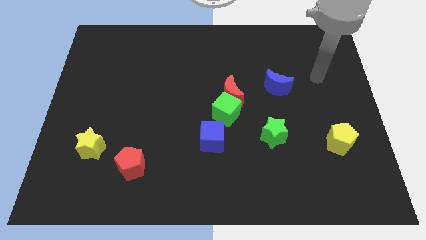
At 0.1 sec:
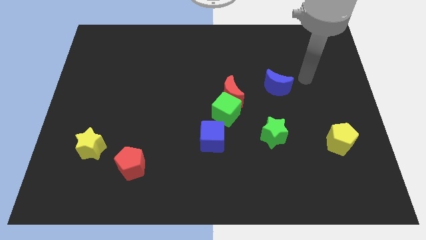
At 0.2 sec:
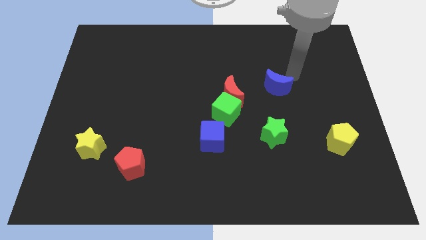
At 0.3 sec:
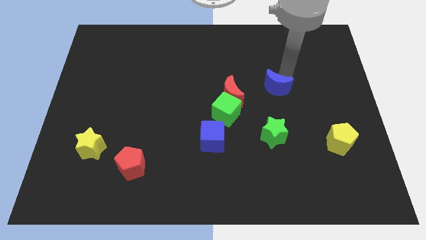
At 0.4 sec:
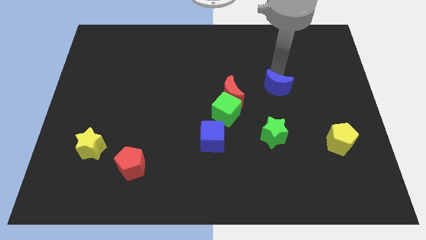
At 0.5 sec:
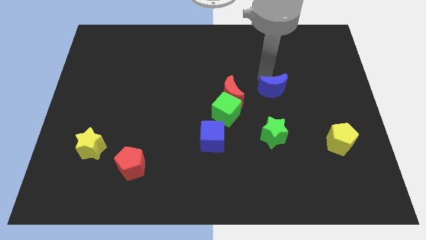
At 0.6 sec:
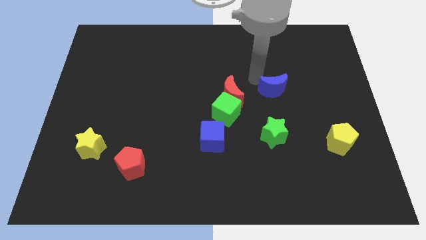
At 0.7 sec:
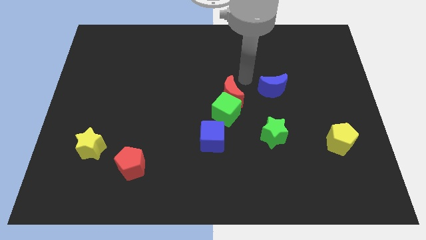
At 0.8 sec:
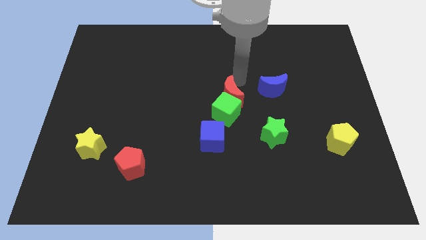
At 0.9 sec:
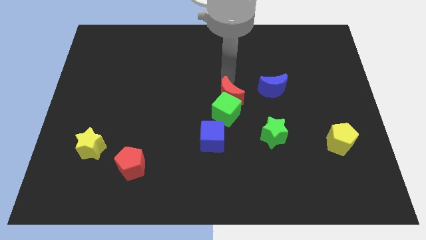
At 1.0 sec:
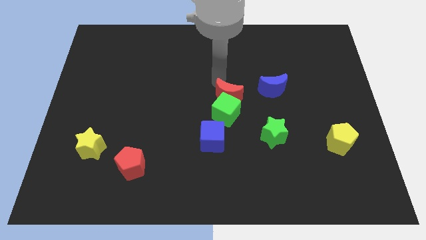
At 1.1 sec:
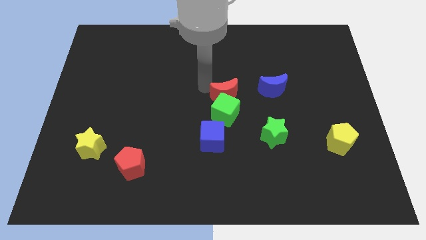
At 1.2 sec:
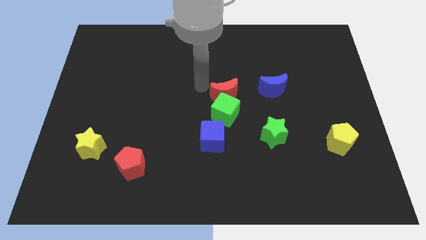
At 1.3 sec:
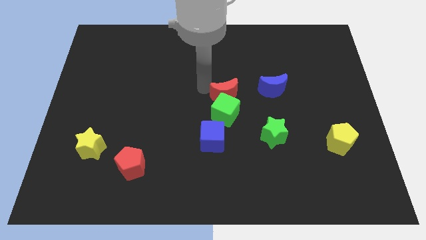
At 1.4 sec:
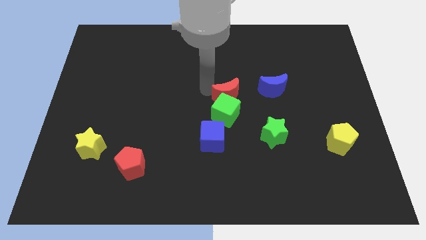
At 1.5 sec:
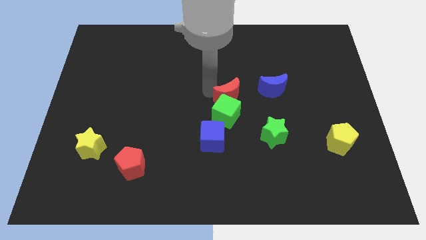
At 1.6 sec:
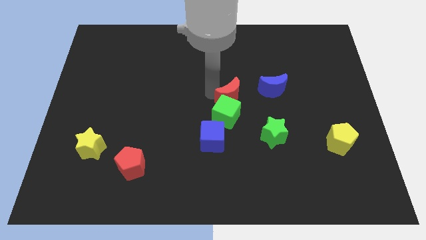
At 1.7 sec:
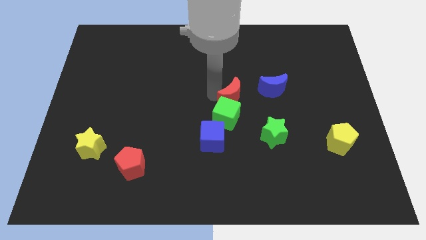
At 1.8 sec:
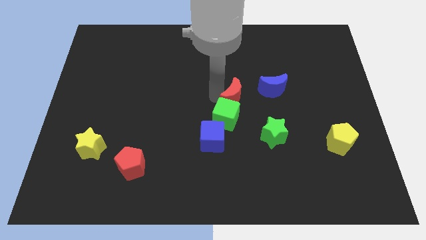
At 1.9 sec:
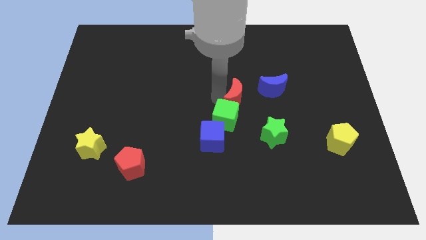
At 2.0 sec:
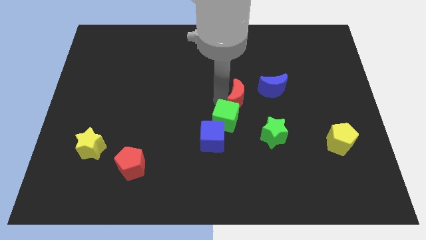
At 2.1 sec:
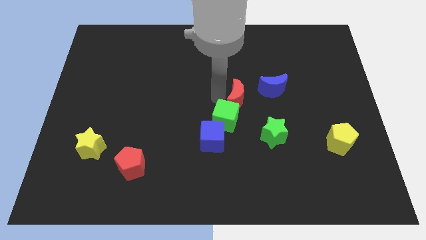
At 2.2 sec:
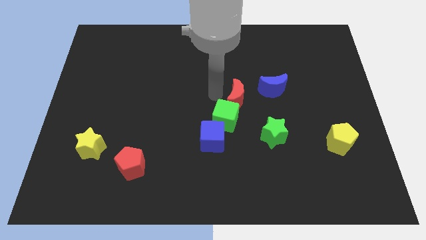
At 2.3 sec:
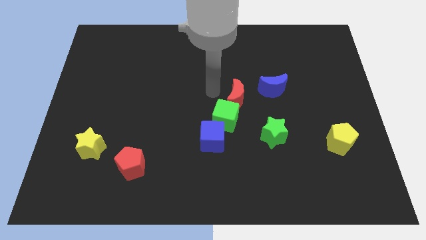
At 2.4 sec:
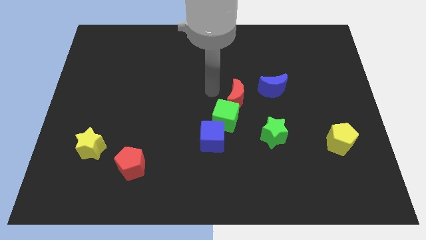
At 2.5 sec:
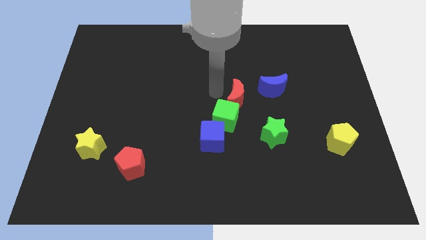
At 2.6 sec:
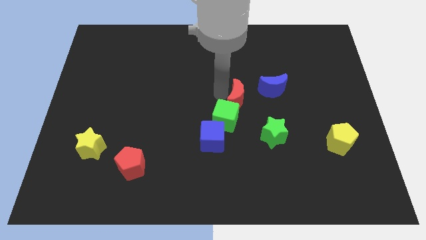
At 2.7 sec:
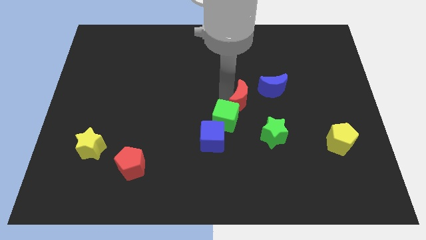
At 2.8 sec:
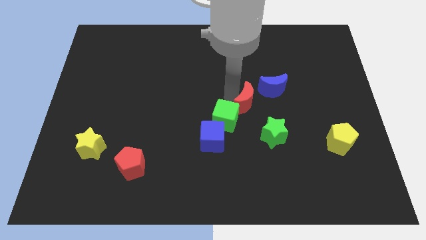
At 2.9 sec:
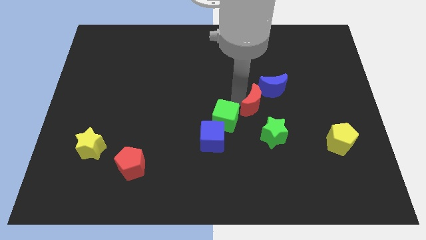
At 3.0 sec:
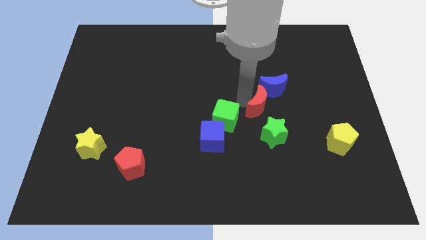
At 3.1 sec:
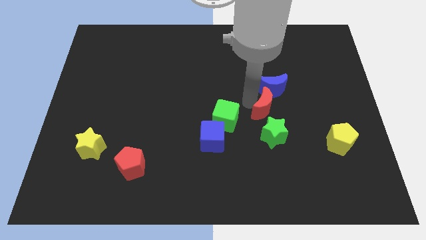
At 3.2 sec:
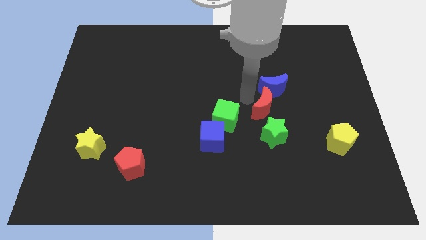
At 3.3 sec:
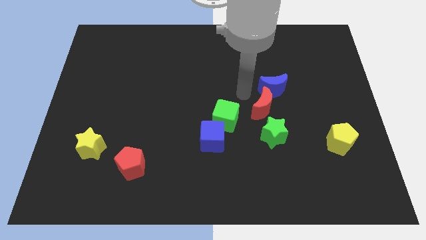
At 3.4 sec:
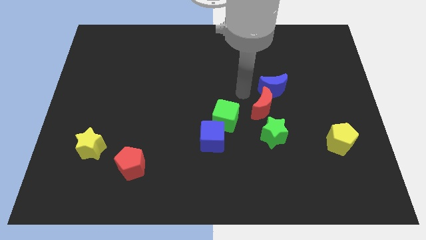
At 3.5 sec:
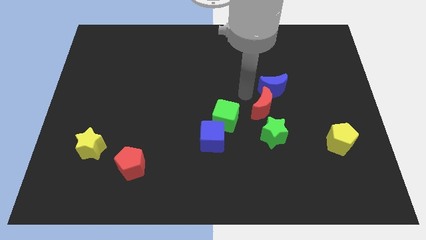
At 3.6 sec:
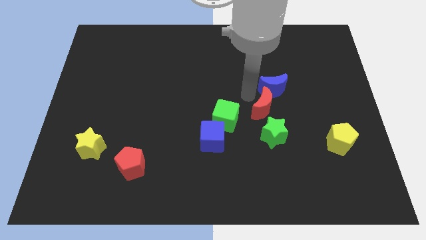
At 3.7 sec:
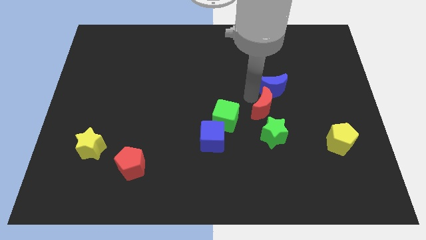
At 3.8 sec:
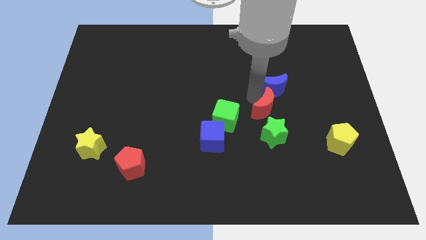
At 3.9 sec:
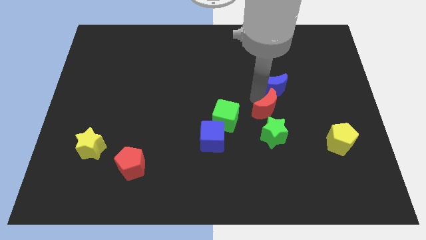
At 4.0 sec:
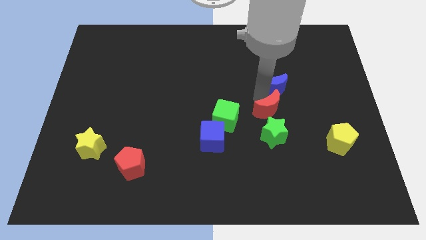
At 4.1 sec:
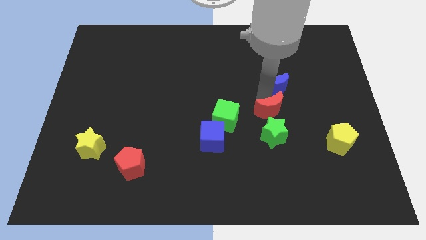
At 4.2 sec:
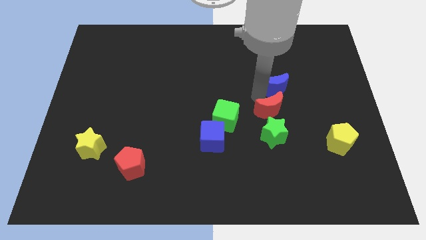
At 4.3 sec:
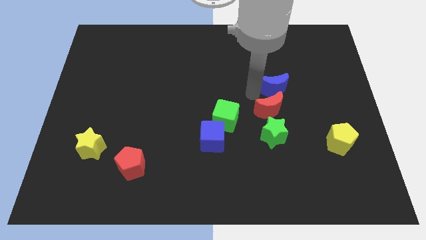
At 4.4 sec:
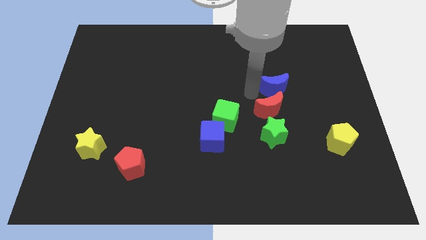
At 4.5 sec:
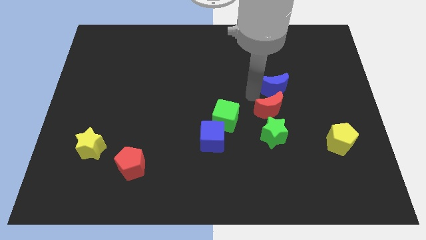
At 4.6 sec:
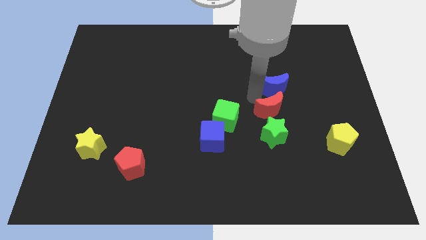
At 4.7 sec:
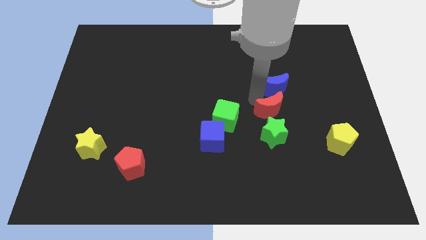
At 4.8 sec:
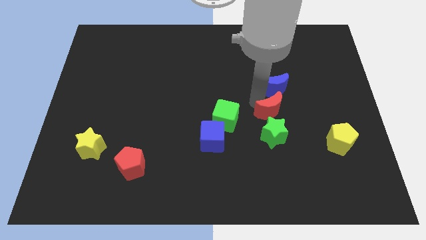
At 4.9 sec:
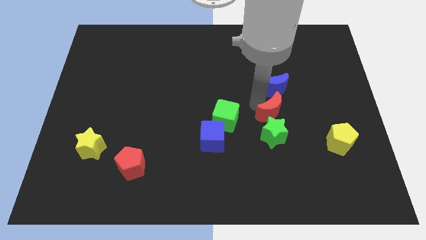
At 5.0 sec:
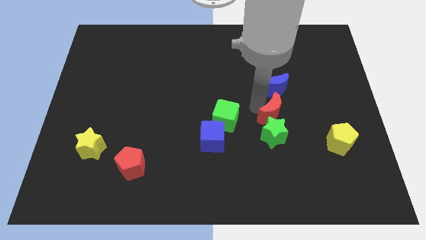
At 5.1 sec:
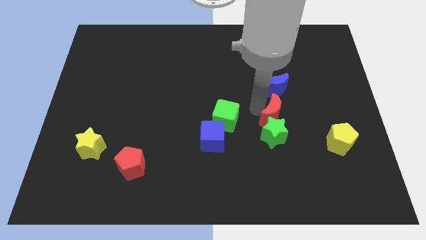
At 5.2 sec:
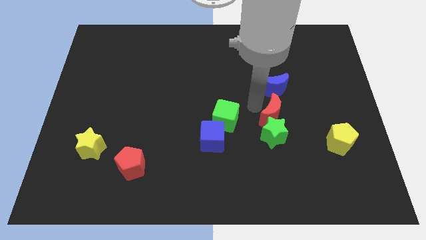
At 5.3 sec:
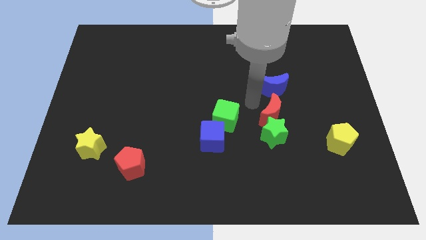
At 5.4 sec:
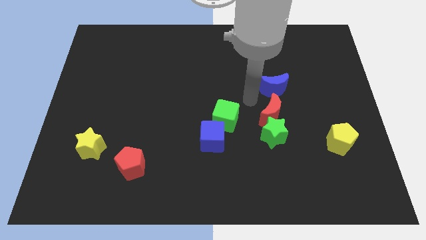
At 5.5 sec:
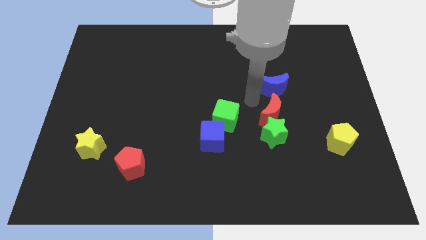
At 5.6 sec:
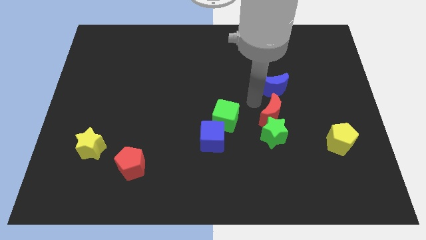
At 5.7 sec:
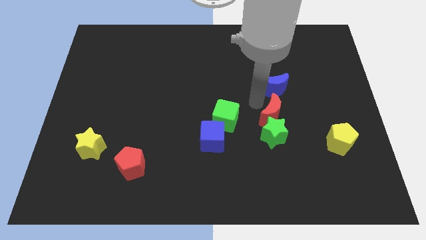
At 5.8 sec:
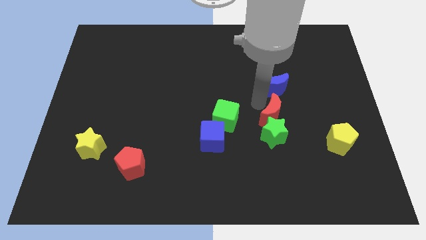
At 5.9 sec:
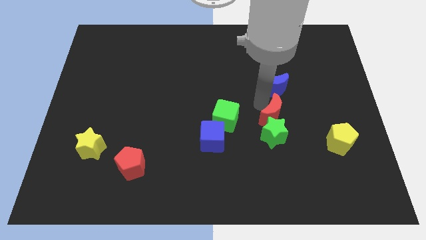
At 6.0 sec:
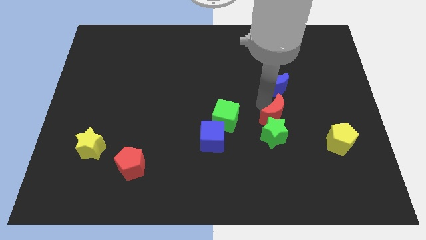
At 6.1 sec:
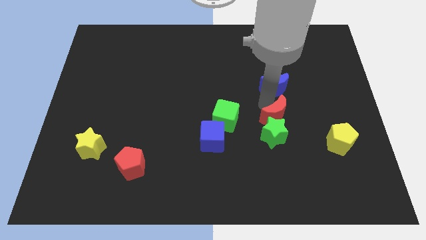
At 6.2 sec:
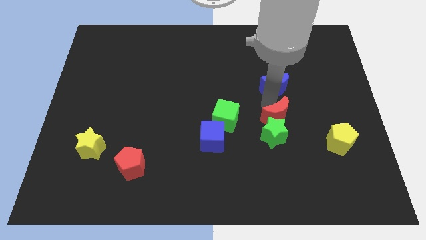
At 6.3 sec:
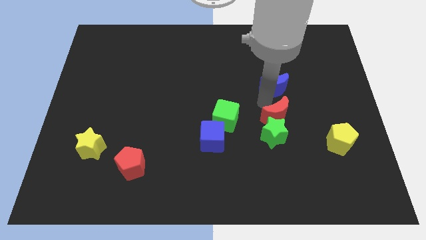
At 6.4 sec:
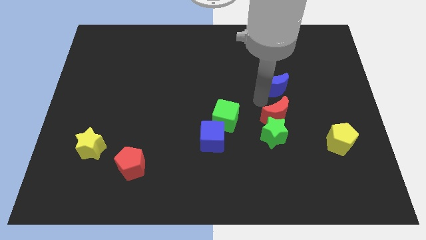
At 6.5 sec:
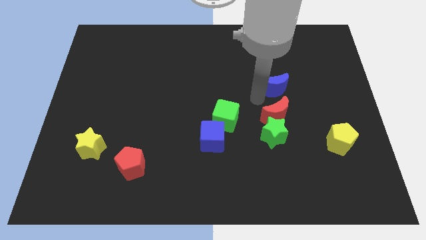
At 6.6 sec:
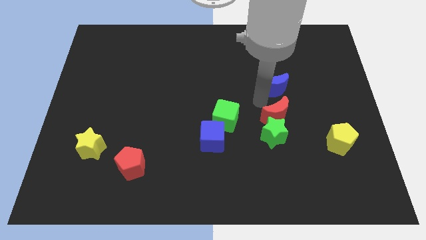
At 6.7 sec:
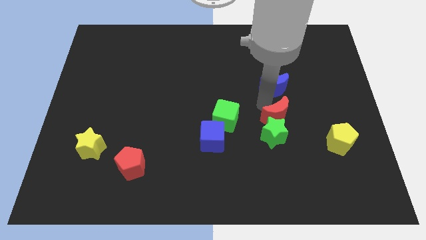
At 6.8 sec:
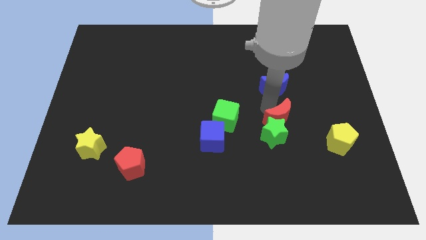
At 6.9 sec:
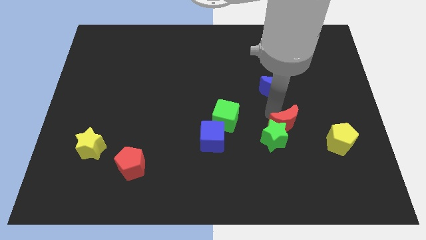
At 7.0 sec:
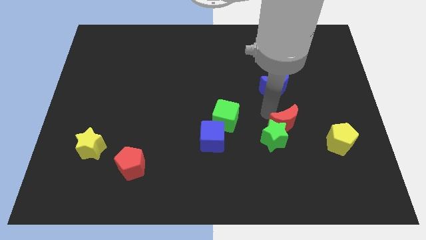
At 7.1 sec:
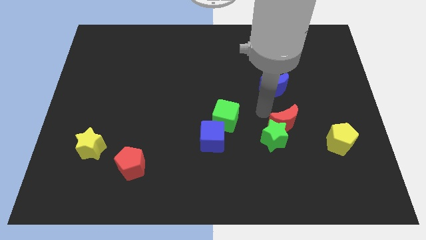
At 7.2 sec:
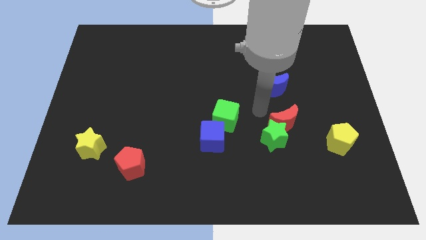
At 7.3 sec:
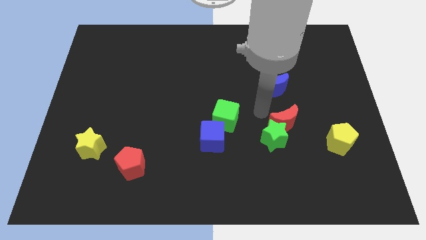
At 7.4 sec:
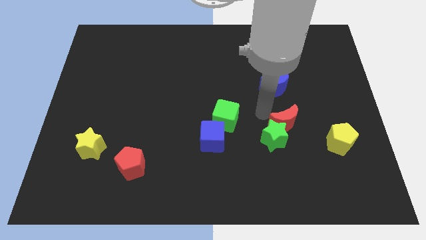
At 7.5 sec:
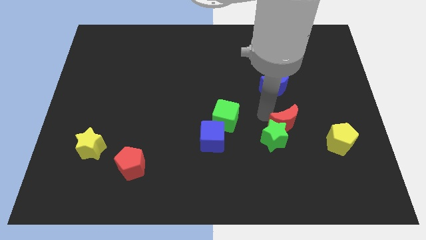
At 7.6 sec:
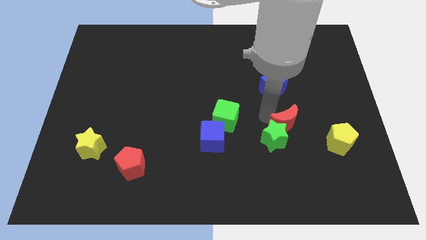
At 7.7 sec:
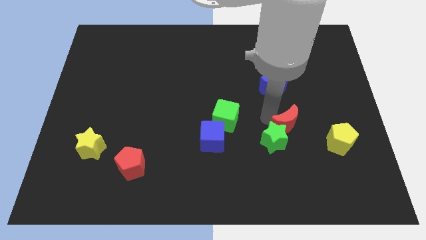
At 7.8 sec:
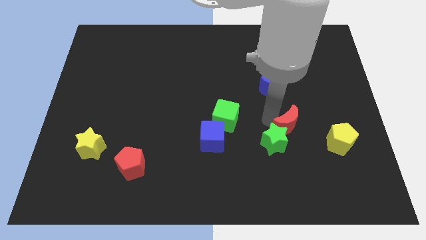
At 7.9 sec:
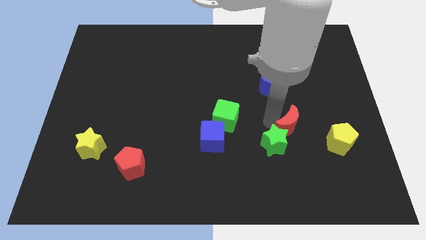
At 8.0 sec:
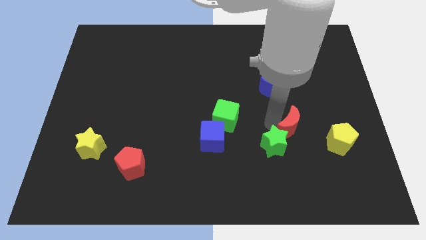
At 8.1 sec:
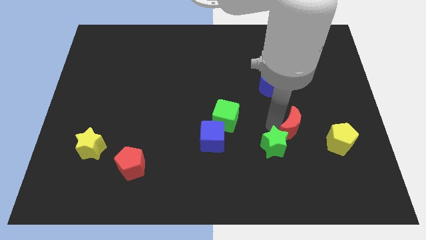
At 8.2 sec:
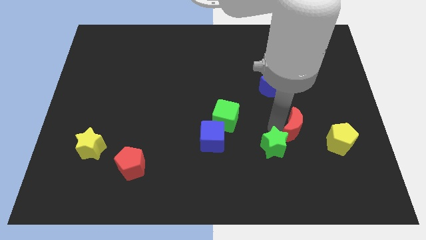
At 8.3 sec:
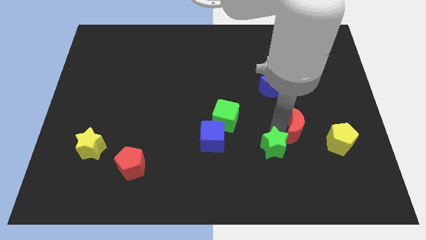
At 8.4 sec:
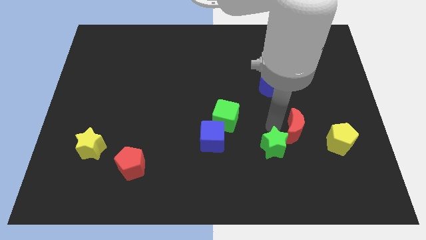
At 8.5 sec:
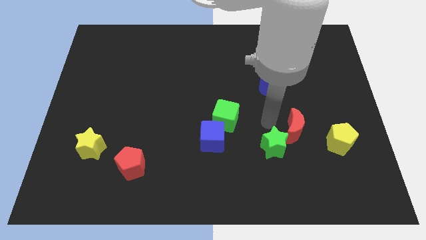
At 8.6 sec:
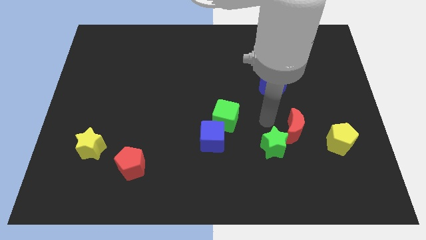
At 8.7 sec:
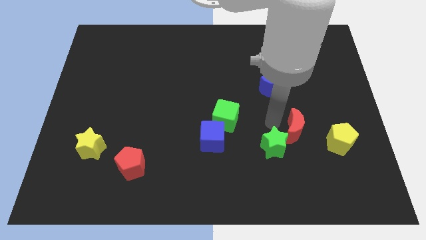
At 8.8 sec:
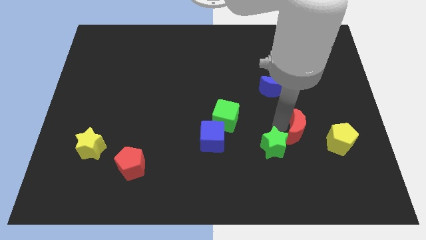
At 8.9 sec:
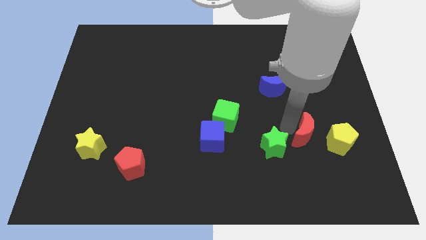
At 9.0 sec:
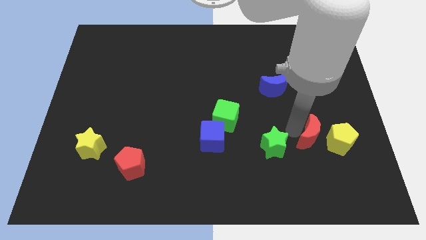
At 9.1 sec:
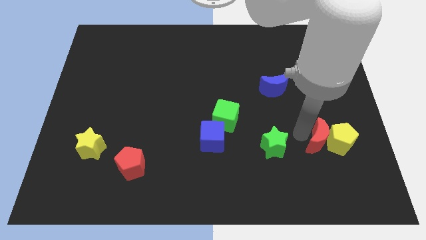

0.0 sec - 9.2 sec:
put the red moon next to the yellow pentagon
